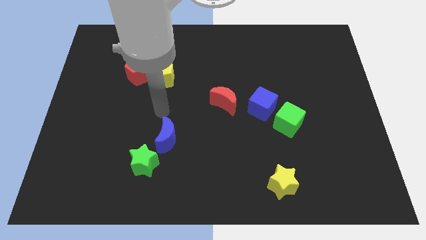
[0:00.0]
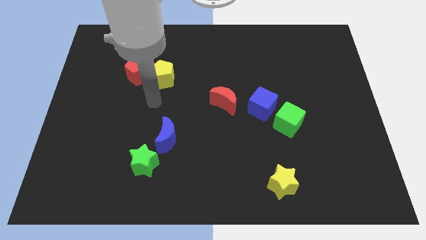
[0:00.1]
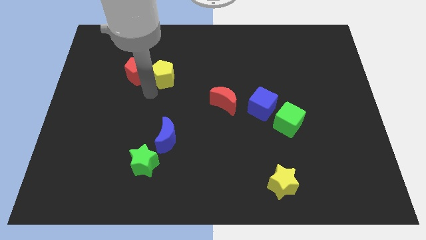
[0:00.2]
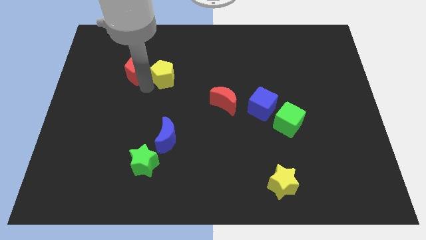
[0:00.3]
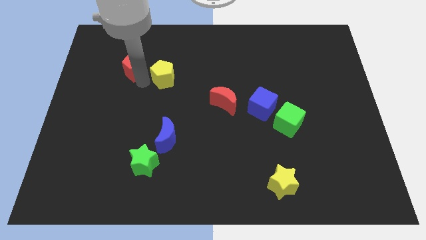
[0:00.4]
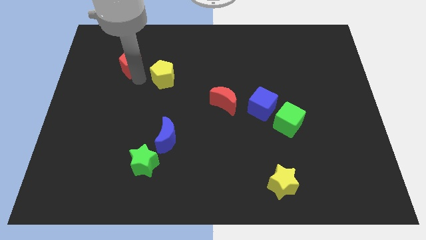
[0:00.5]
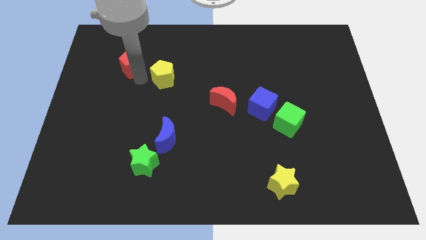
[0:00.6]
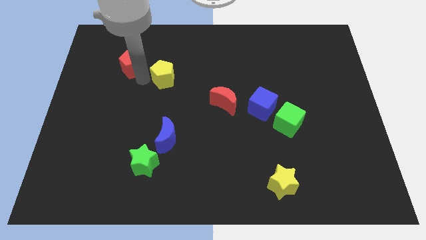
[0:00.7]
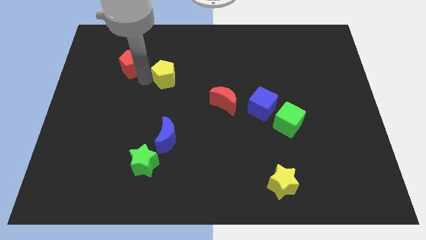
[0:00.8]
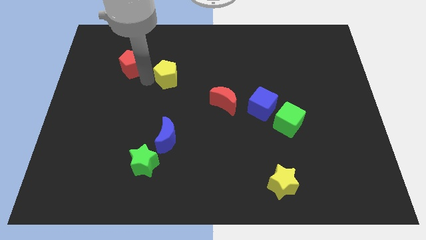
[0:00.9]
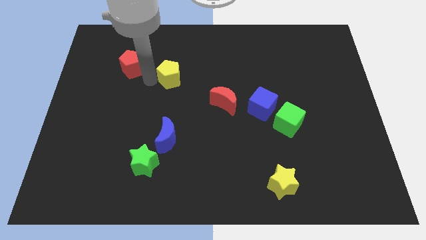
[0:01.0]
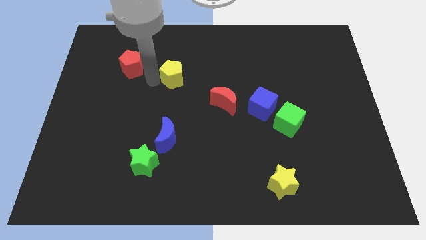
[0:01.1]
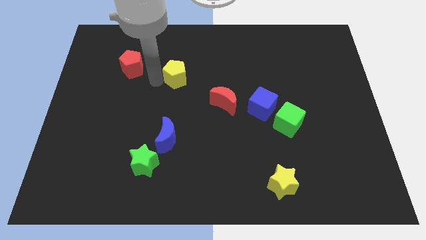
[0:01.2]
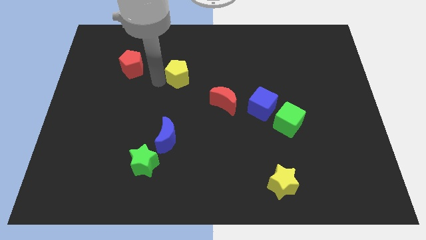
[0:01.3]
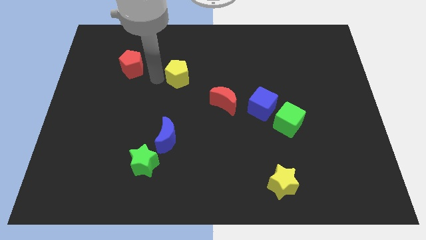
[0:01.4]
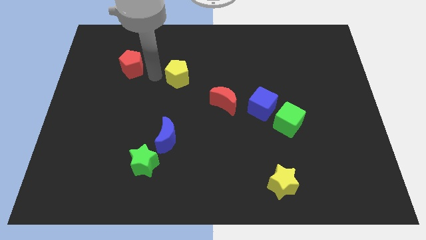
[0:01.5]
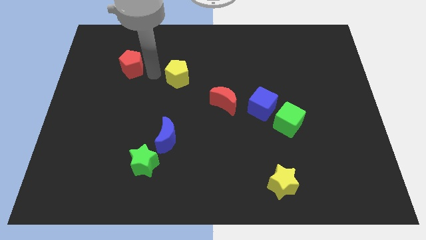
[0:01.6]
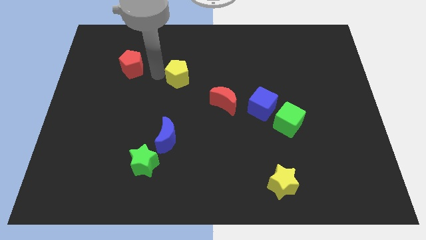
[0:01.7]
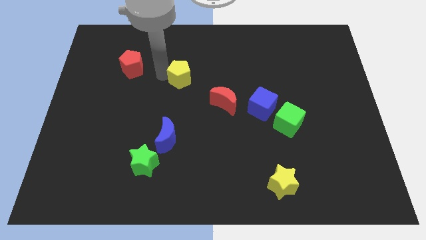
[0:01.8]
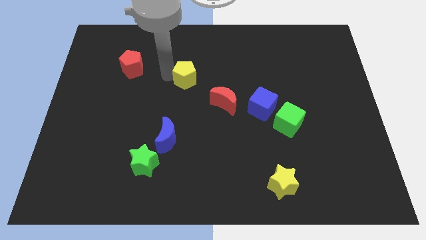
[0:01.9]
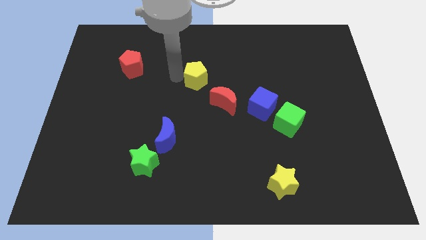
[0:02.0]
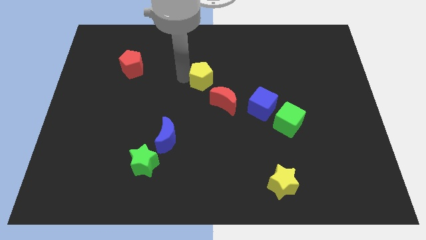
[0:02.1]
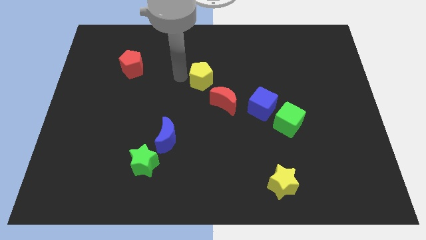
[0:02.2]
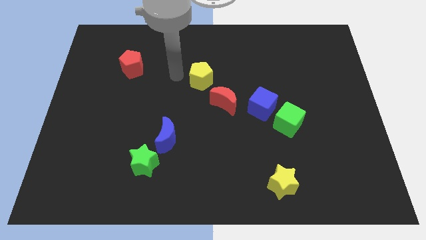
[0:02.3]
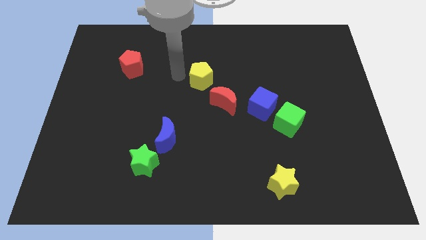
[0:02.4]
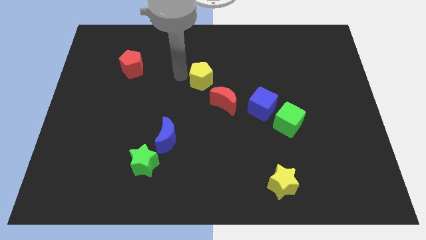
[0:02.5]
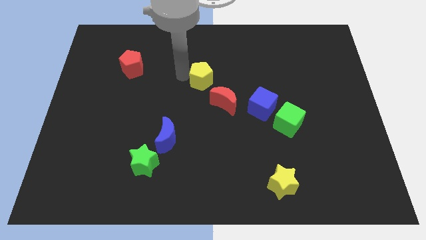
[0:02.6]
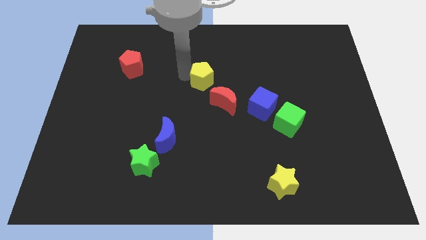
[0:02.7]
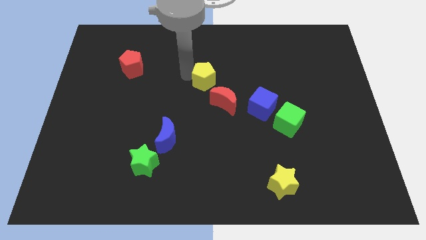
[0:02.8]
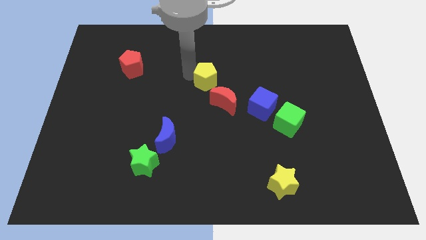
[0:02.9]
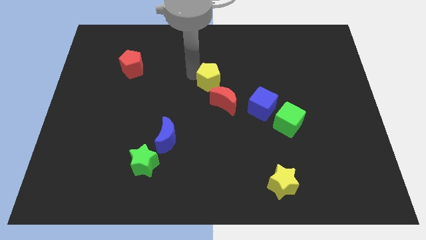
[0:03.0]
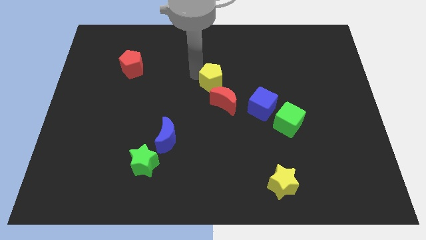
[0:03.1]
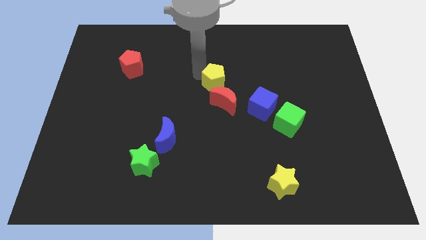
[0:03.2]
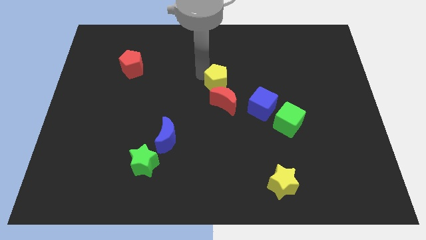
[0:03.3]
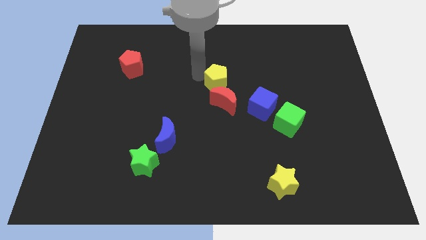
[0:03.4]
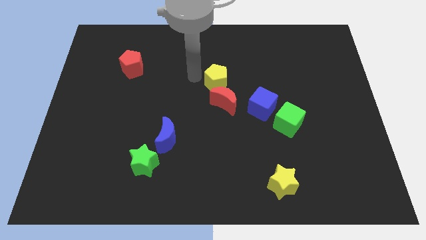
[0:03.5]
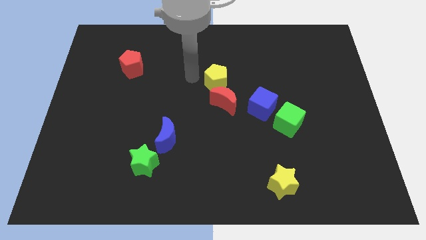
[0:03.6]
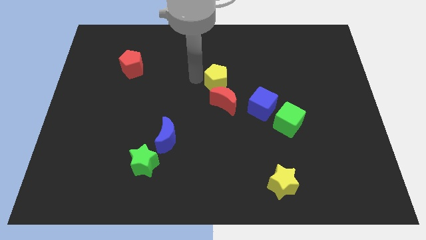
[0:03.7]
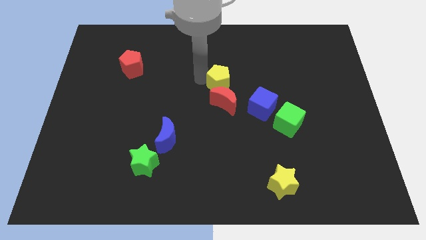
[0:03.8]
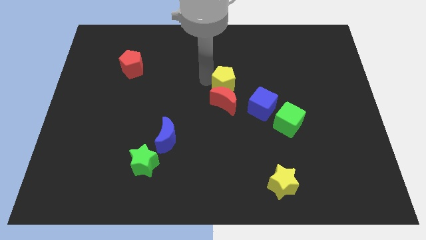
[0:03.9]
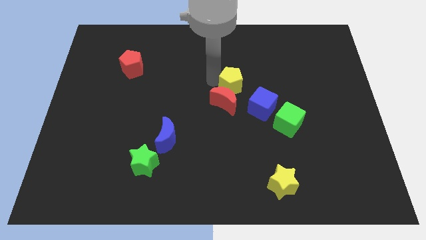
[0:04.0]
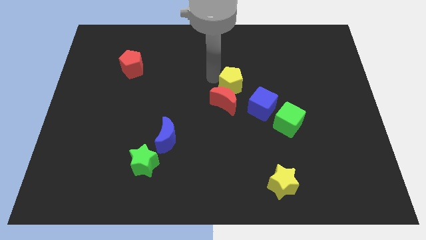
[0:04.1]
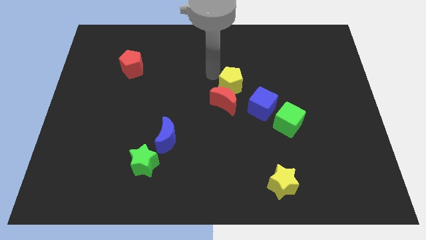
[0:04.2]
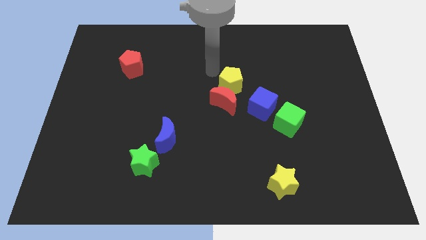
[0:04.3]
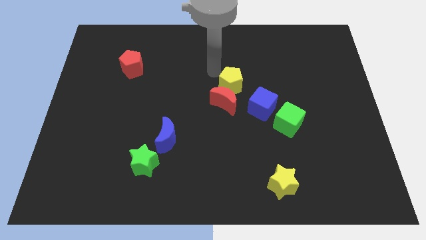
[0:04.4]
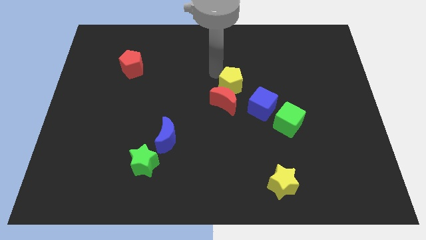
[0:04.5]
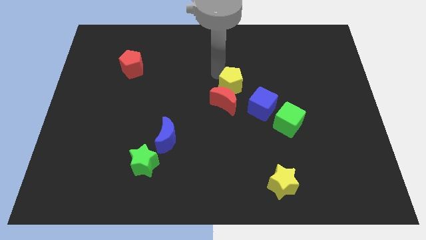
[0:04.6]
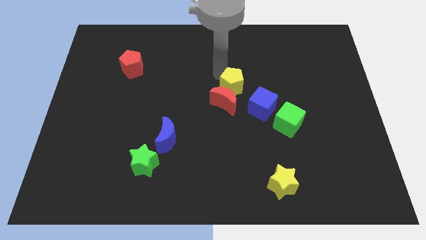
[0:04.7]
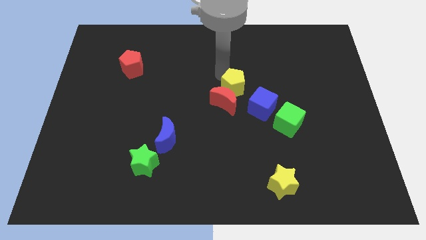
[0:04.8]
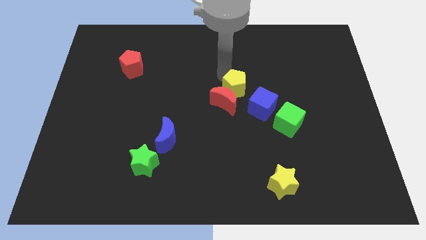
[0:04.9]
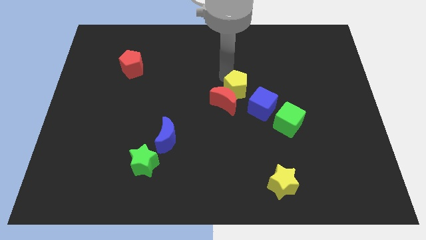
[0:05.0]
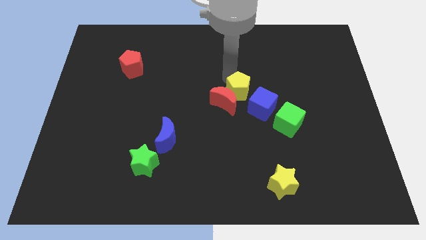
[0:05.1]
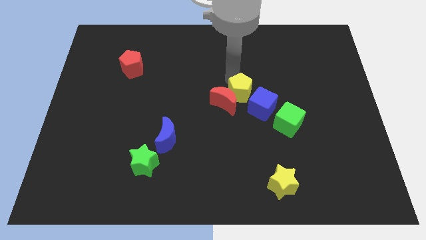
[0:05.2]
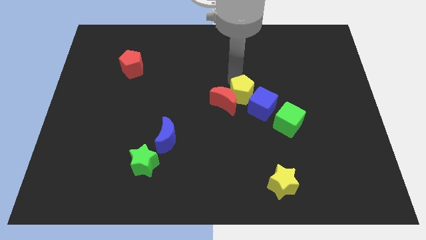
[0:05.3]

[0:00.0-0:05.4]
put the yellow pentagon close to the blue cube
